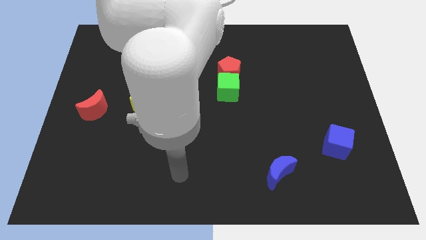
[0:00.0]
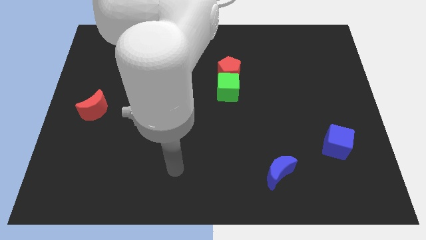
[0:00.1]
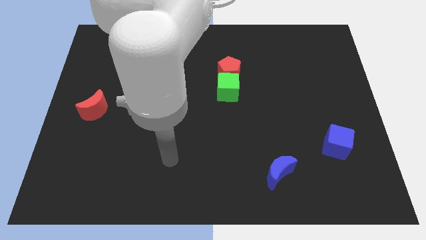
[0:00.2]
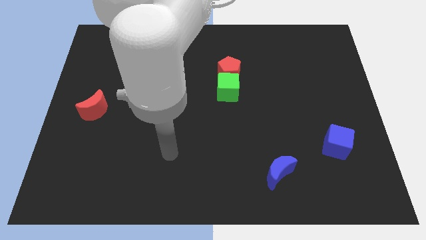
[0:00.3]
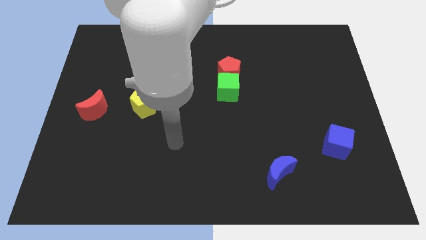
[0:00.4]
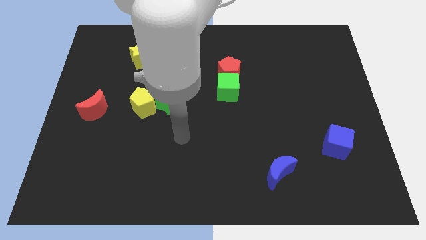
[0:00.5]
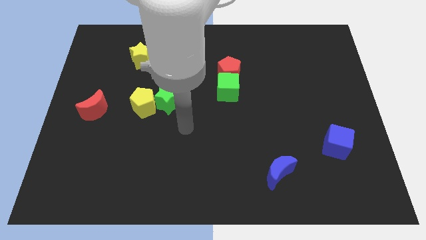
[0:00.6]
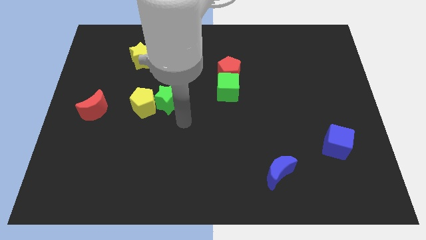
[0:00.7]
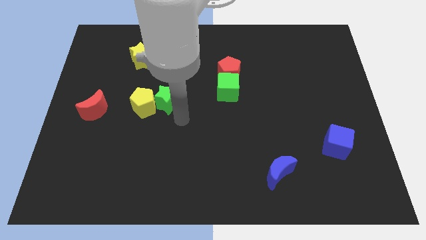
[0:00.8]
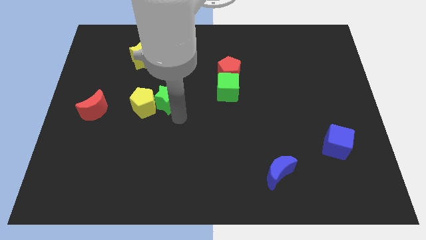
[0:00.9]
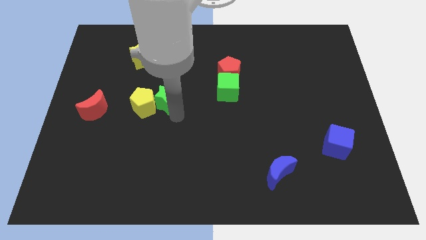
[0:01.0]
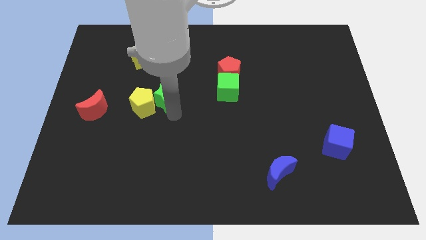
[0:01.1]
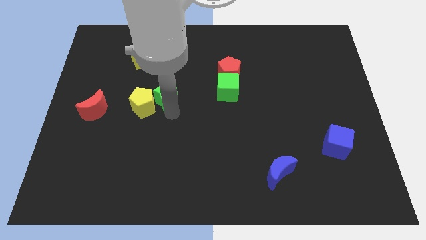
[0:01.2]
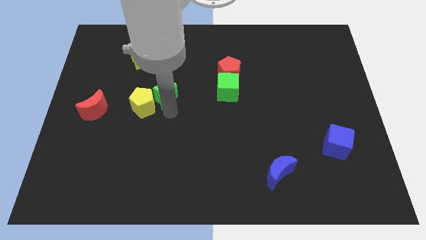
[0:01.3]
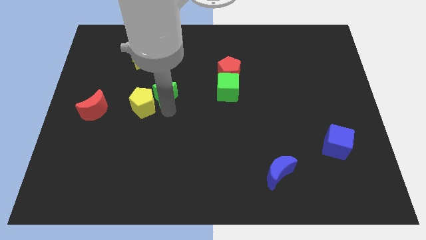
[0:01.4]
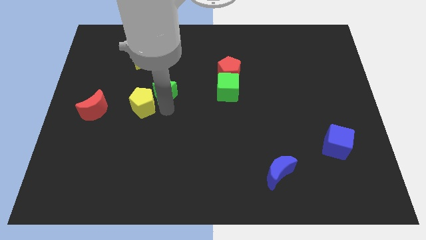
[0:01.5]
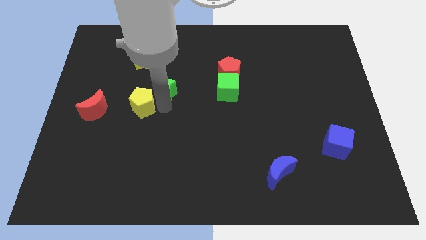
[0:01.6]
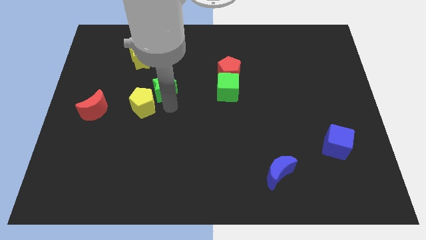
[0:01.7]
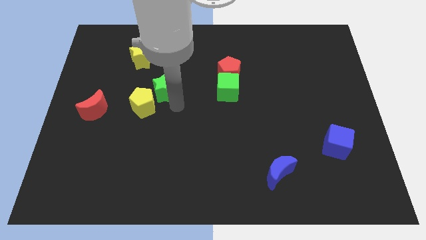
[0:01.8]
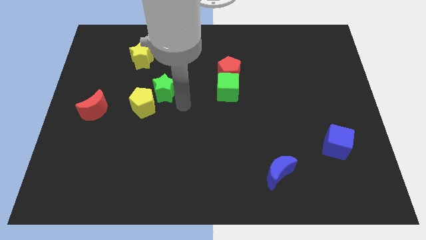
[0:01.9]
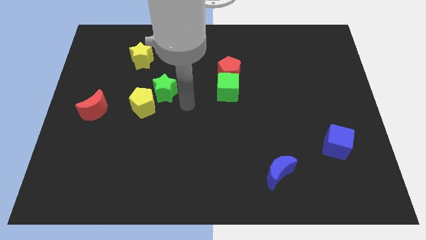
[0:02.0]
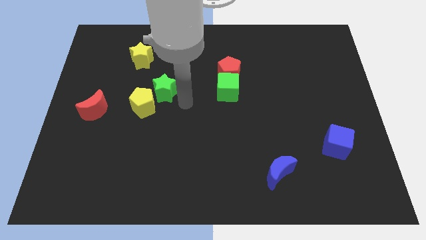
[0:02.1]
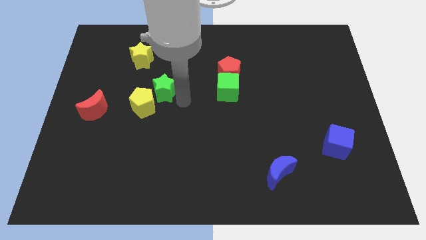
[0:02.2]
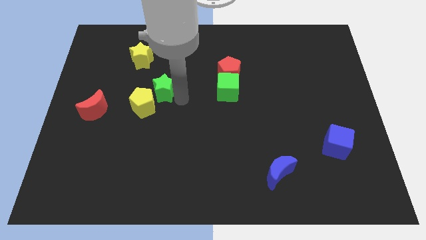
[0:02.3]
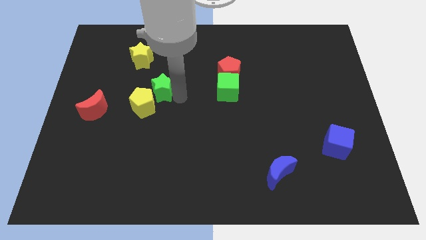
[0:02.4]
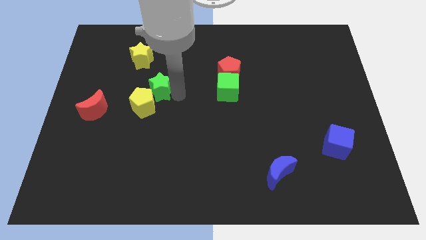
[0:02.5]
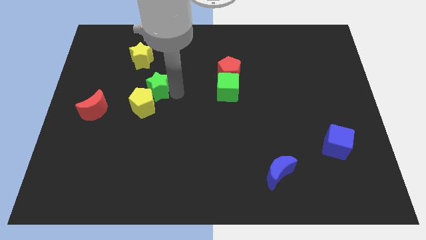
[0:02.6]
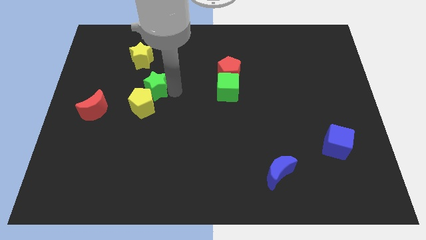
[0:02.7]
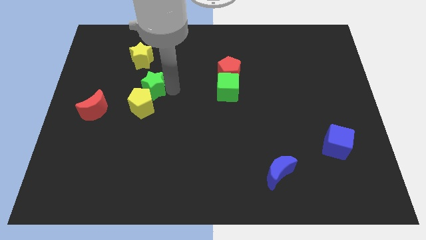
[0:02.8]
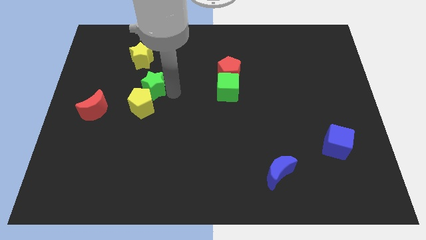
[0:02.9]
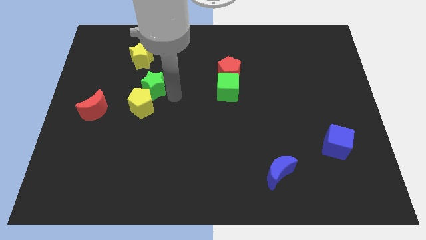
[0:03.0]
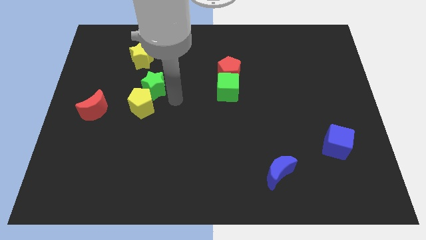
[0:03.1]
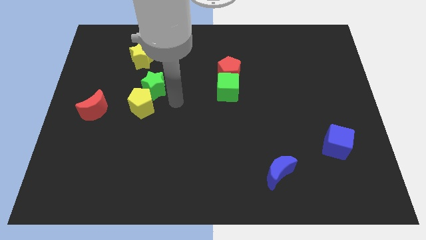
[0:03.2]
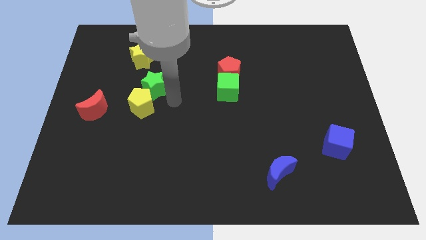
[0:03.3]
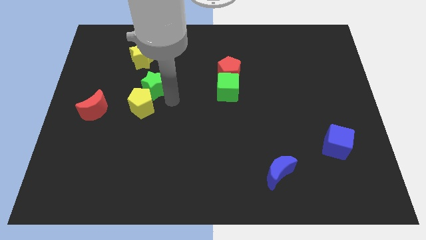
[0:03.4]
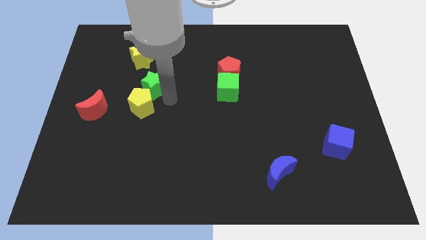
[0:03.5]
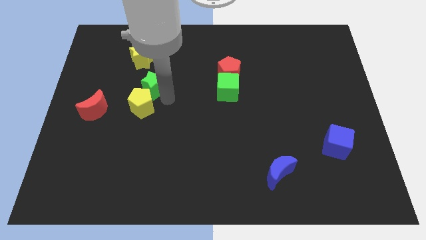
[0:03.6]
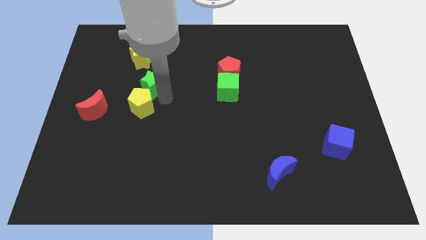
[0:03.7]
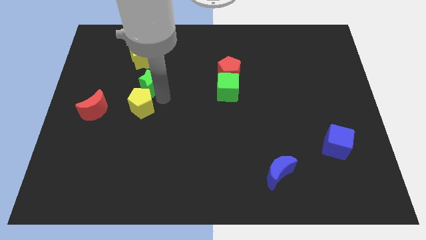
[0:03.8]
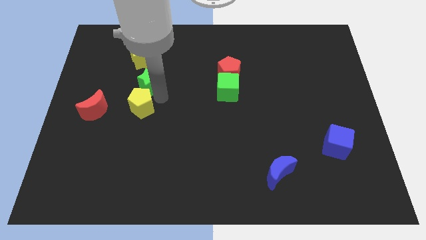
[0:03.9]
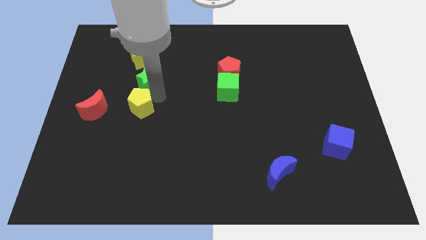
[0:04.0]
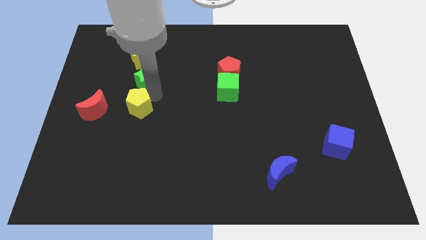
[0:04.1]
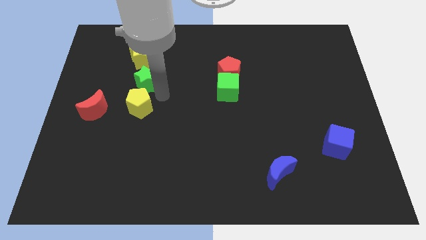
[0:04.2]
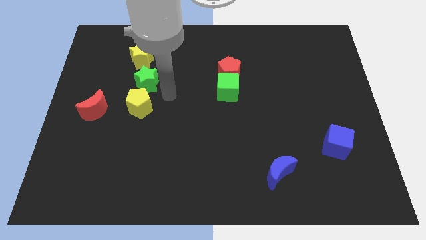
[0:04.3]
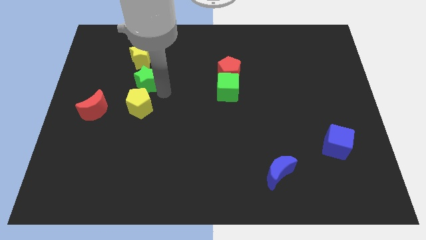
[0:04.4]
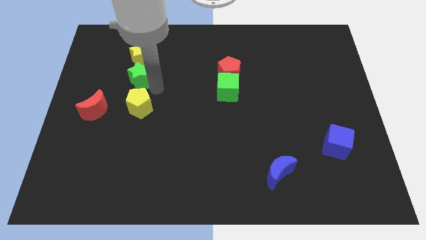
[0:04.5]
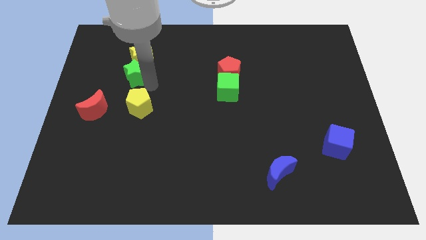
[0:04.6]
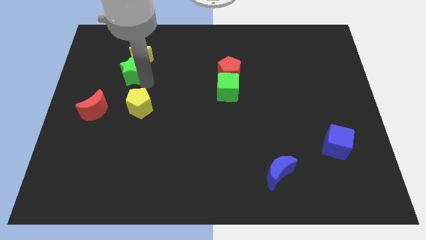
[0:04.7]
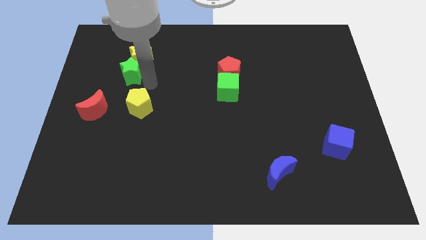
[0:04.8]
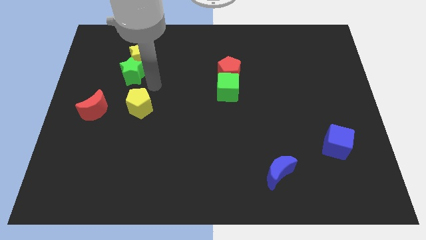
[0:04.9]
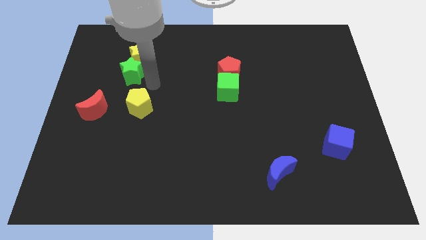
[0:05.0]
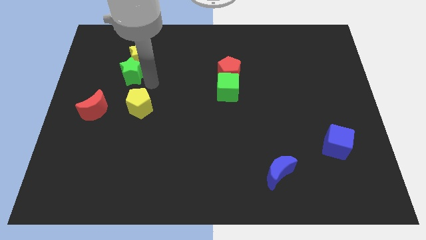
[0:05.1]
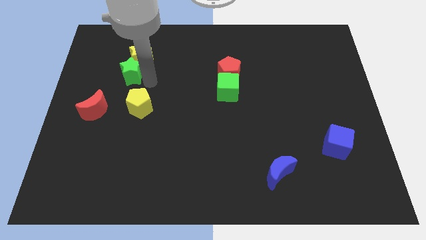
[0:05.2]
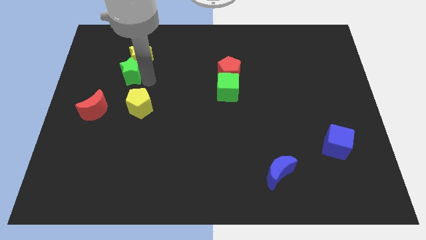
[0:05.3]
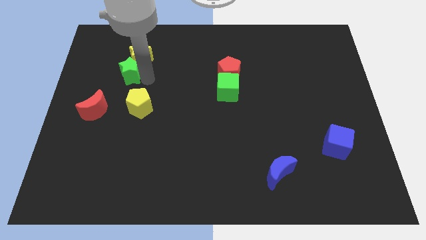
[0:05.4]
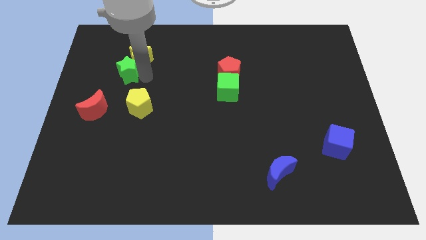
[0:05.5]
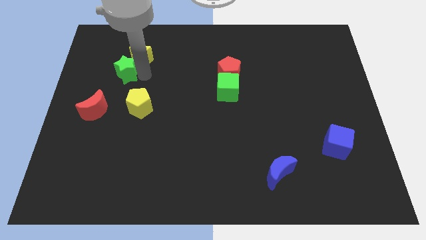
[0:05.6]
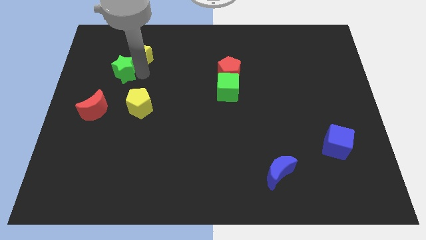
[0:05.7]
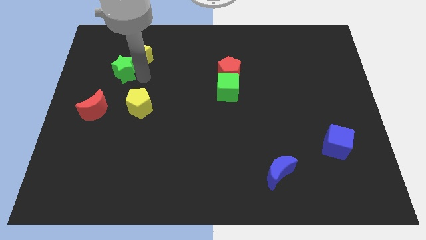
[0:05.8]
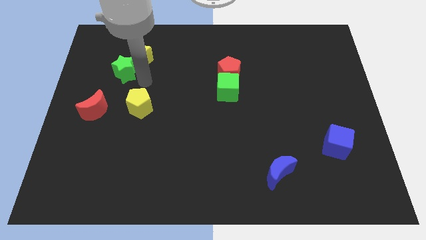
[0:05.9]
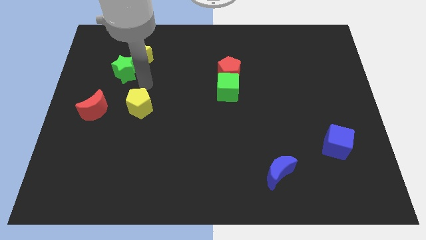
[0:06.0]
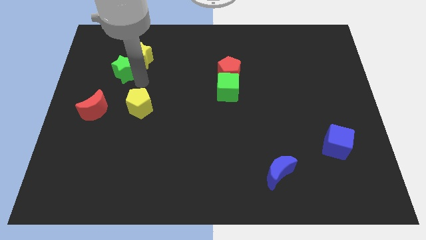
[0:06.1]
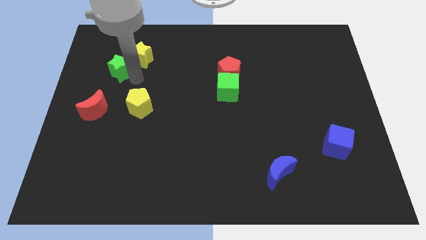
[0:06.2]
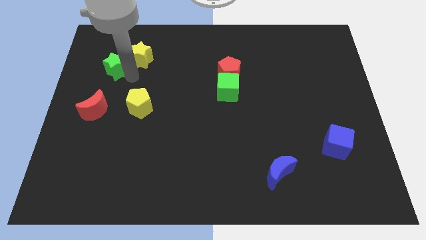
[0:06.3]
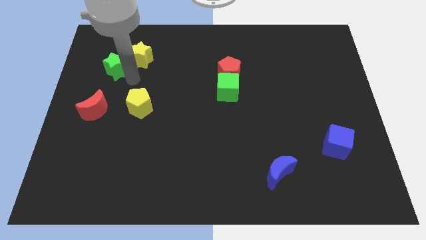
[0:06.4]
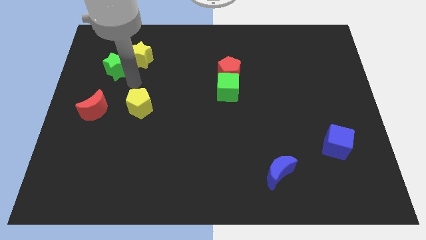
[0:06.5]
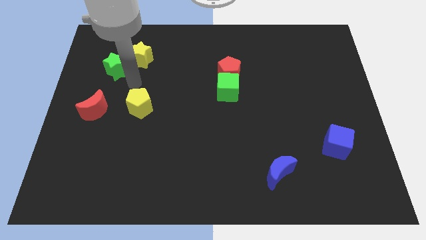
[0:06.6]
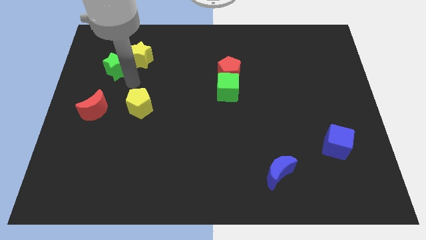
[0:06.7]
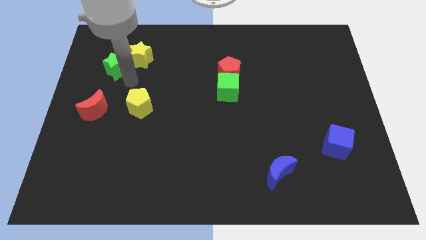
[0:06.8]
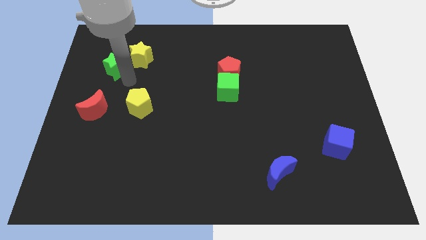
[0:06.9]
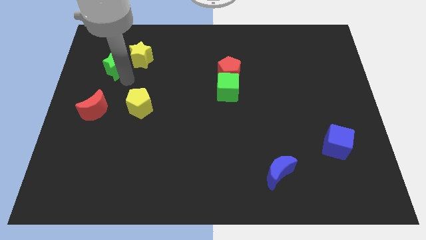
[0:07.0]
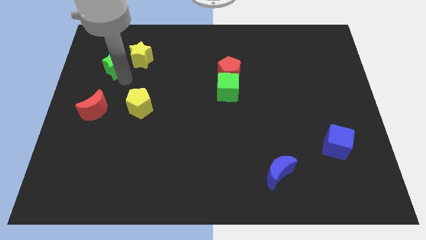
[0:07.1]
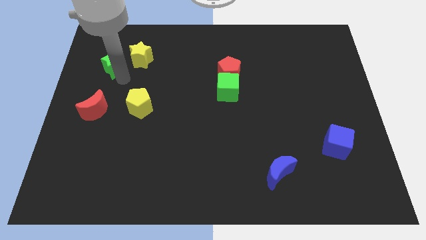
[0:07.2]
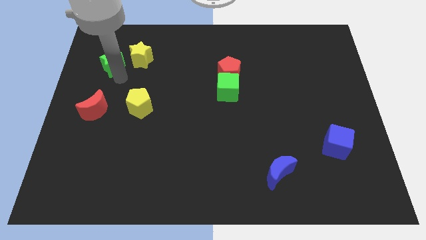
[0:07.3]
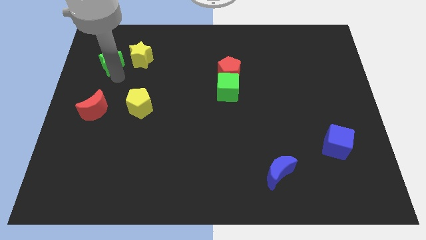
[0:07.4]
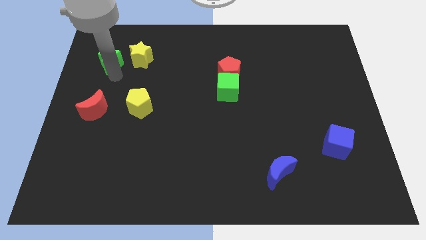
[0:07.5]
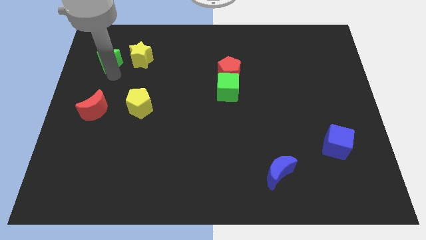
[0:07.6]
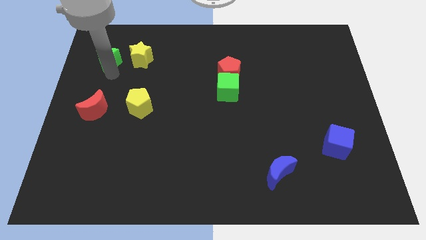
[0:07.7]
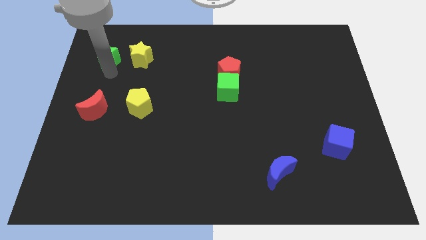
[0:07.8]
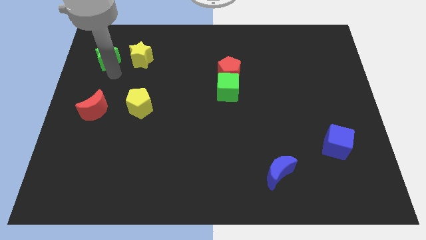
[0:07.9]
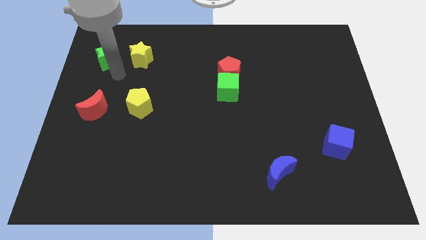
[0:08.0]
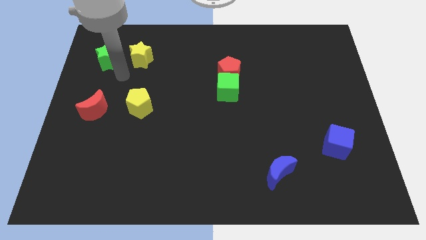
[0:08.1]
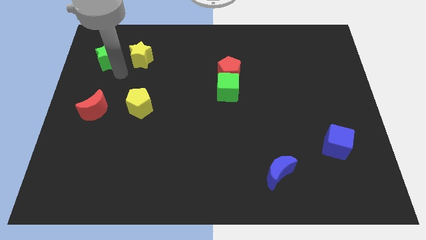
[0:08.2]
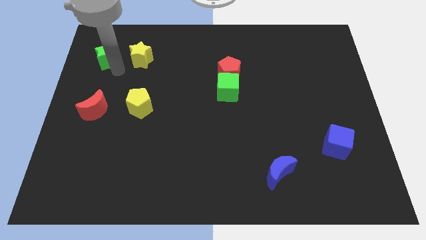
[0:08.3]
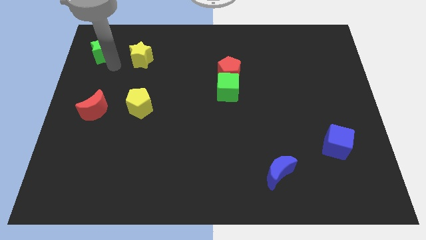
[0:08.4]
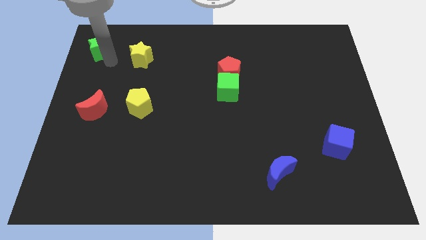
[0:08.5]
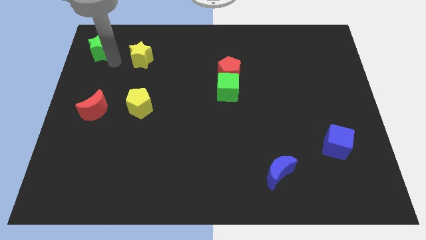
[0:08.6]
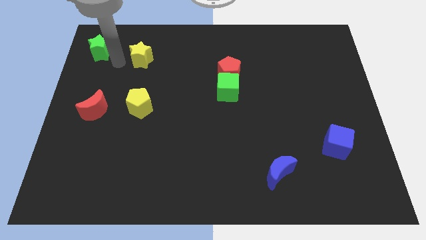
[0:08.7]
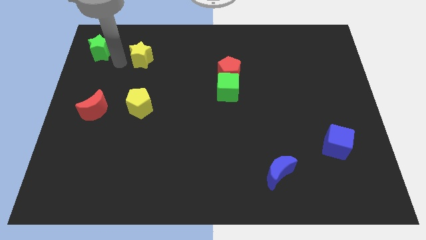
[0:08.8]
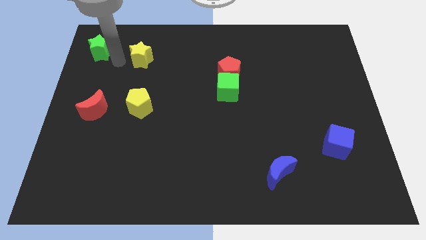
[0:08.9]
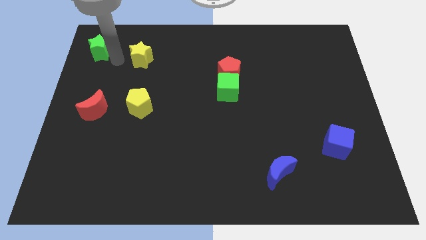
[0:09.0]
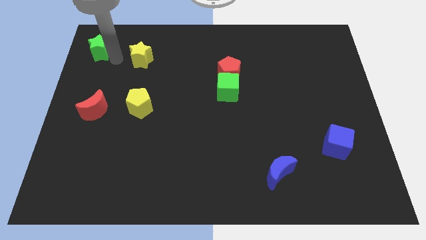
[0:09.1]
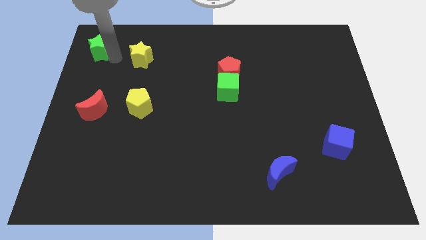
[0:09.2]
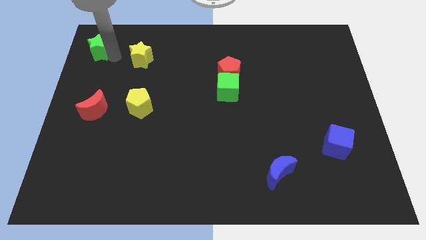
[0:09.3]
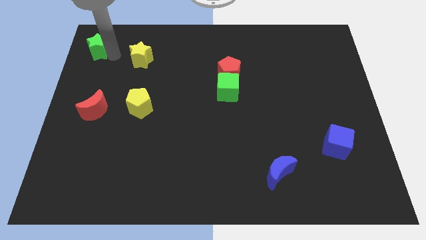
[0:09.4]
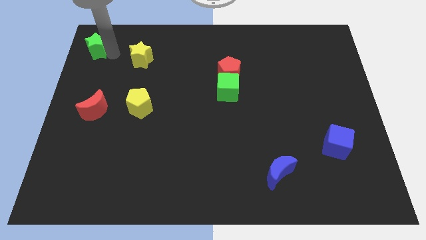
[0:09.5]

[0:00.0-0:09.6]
put the green star to the top left
